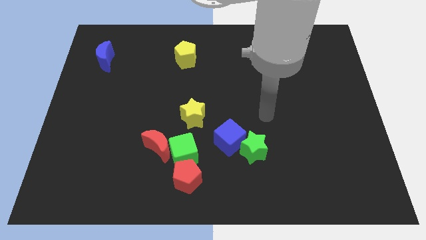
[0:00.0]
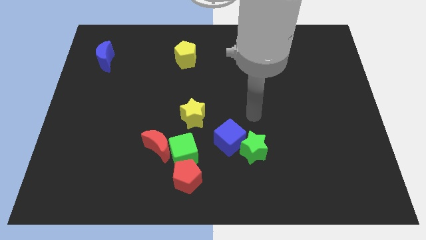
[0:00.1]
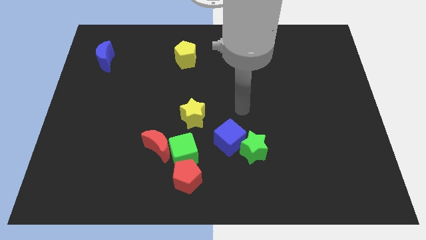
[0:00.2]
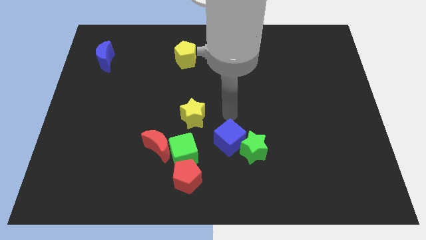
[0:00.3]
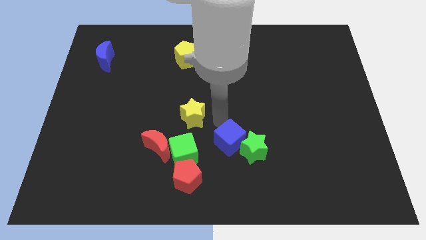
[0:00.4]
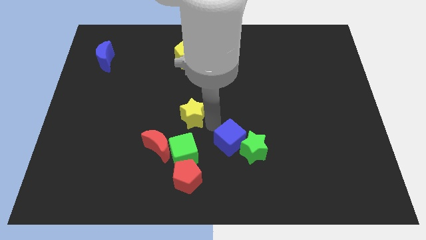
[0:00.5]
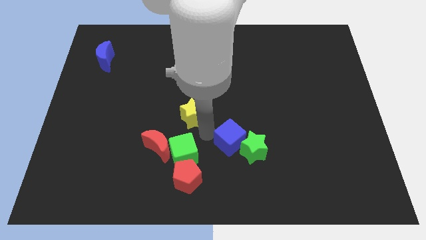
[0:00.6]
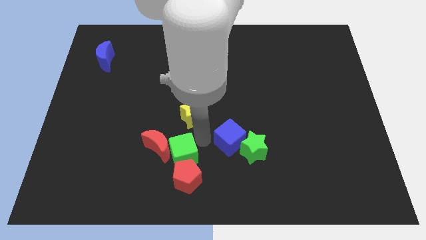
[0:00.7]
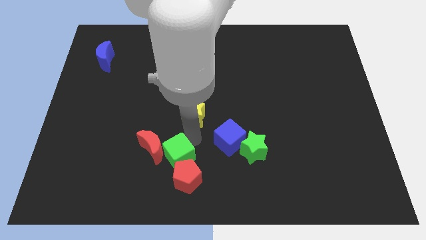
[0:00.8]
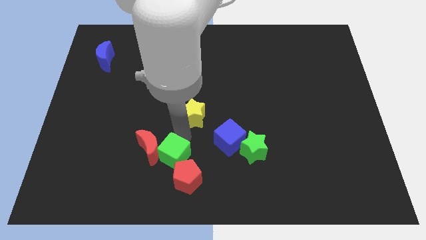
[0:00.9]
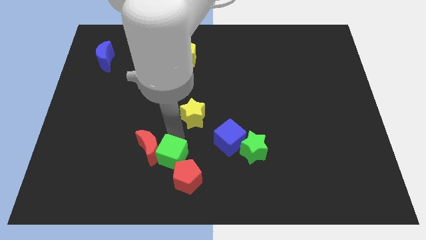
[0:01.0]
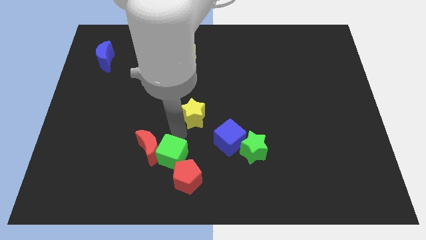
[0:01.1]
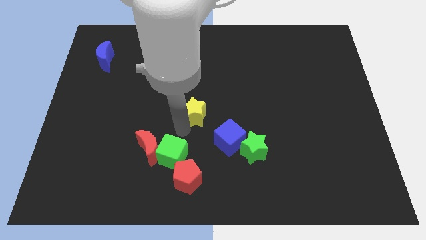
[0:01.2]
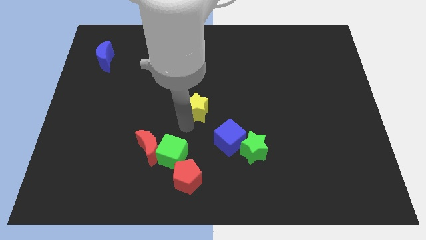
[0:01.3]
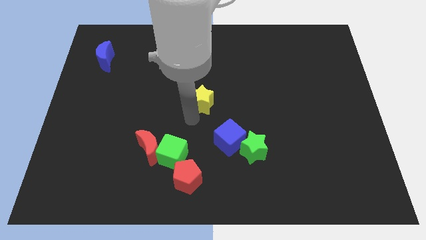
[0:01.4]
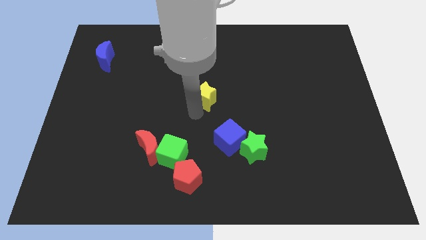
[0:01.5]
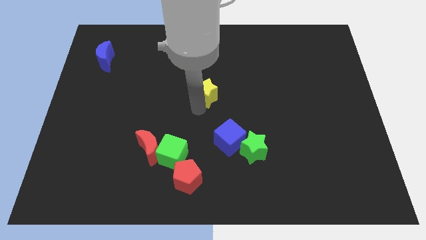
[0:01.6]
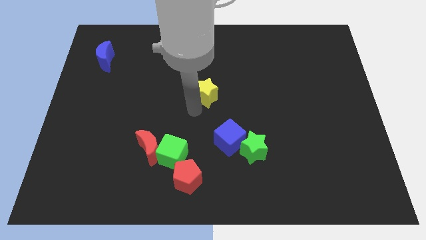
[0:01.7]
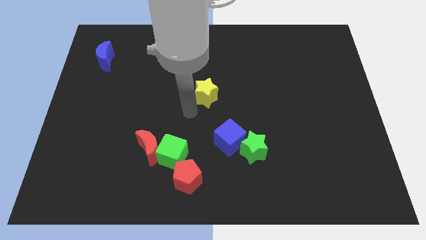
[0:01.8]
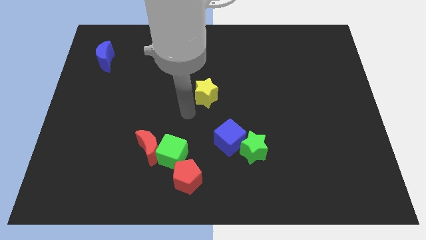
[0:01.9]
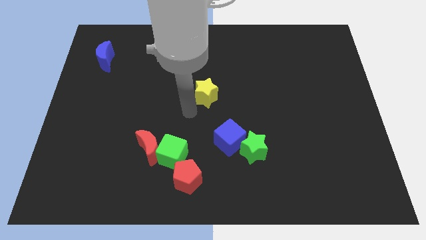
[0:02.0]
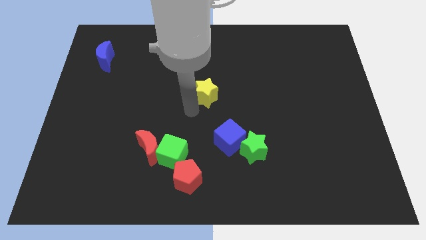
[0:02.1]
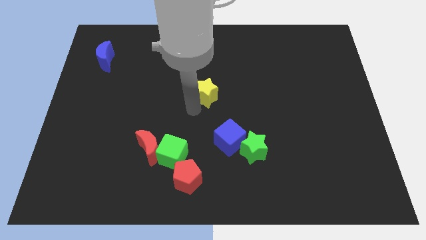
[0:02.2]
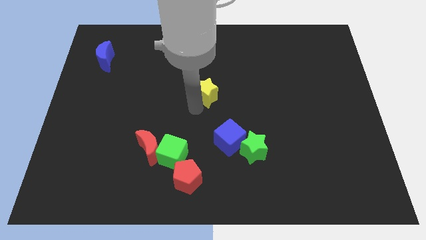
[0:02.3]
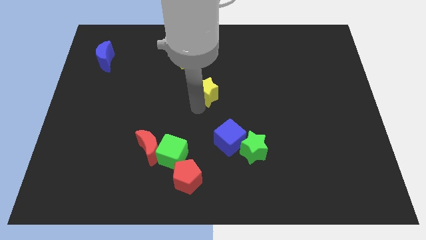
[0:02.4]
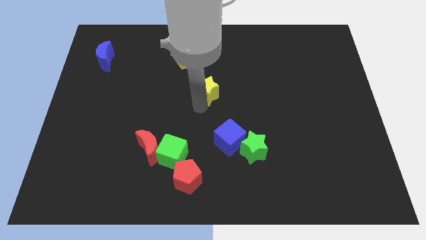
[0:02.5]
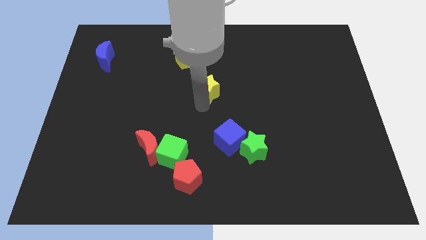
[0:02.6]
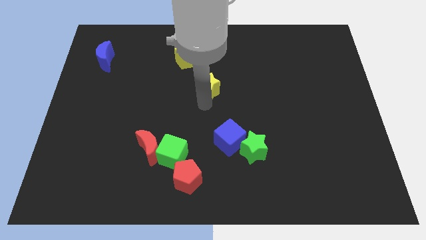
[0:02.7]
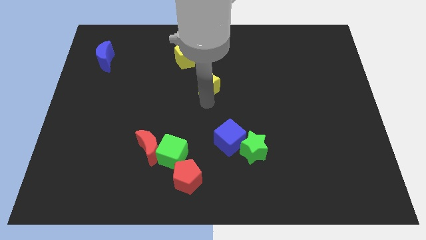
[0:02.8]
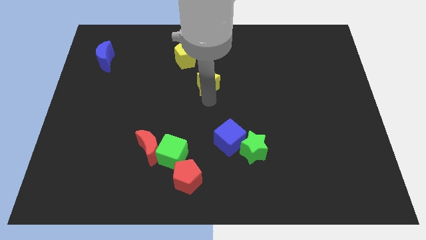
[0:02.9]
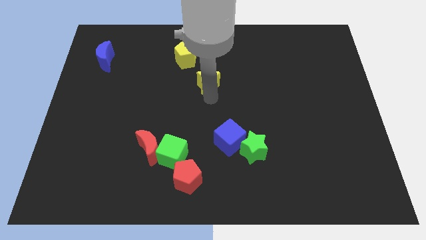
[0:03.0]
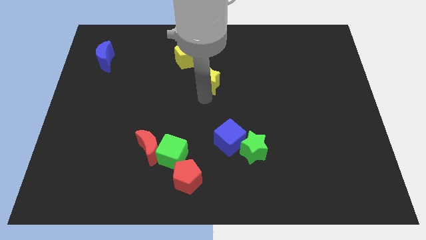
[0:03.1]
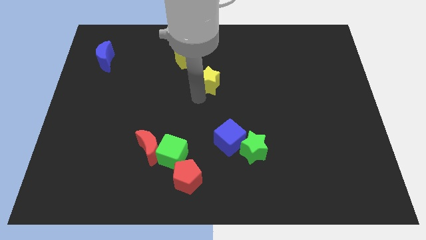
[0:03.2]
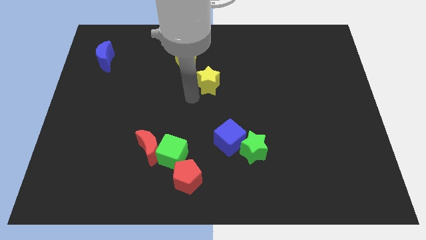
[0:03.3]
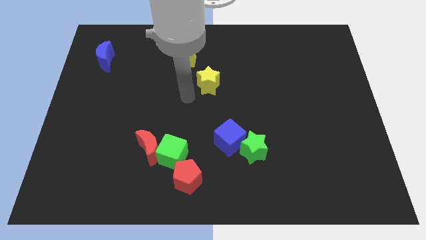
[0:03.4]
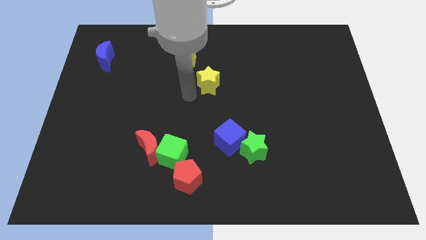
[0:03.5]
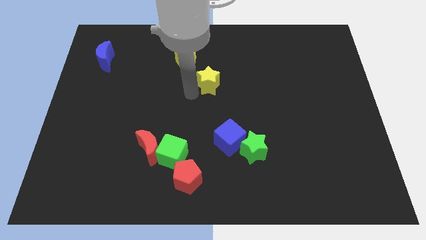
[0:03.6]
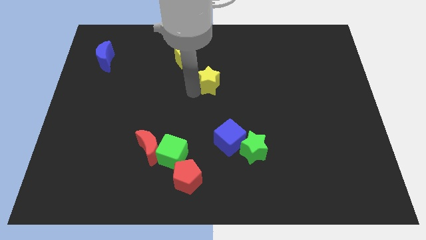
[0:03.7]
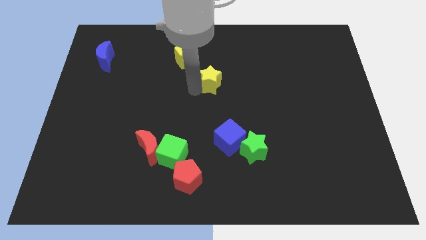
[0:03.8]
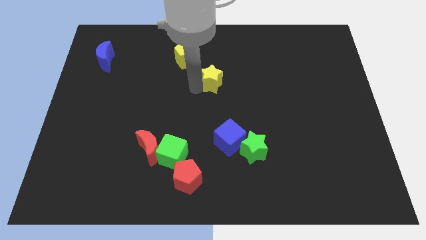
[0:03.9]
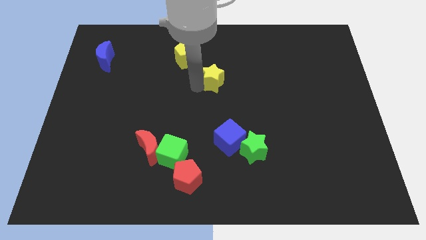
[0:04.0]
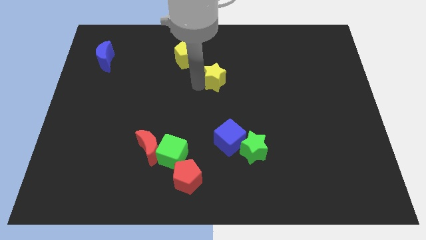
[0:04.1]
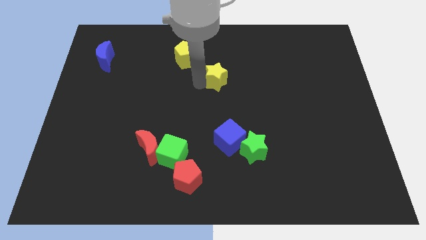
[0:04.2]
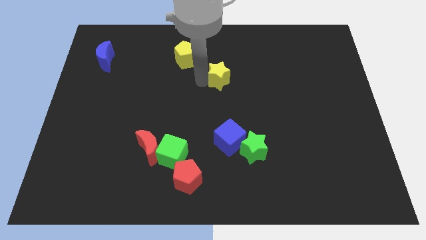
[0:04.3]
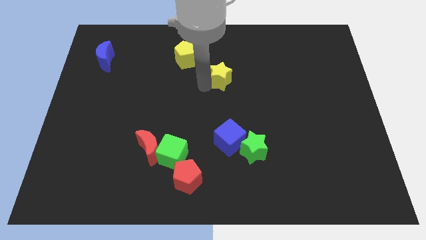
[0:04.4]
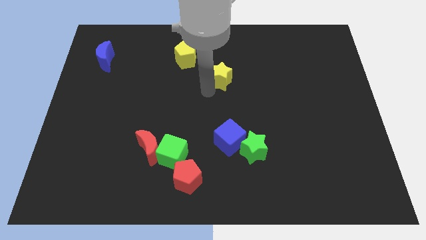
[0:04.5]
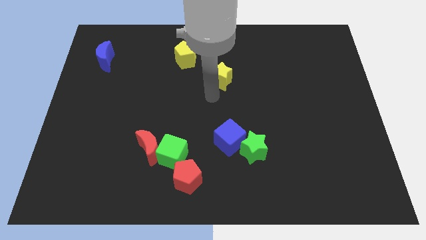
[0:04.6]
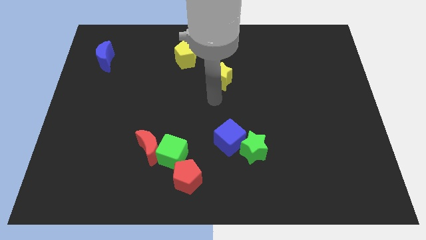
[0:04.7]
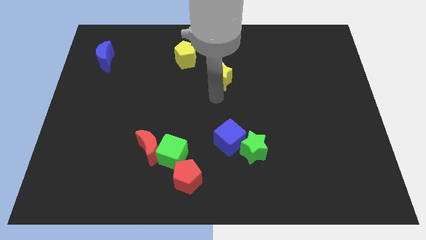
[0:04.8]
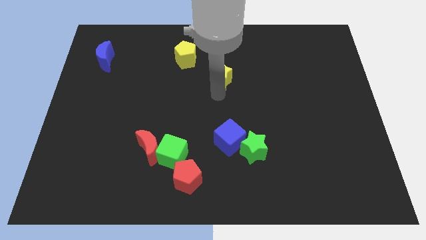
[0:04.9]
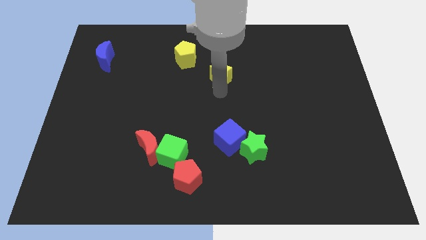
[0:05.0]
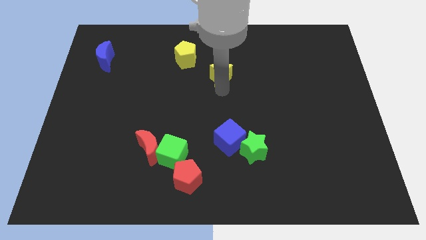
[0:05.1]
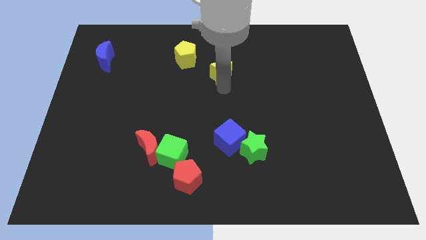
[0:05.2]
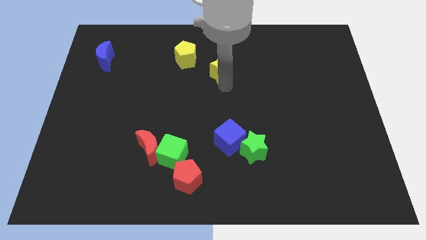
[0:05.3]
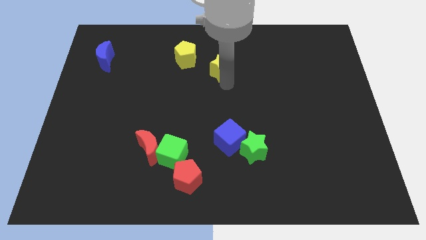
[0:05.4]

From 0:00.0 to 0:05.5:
push the yellow star just right of the yellow pentagon
